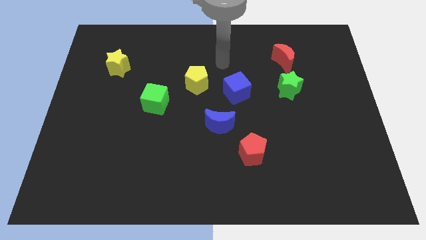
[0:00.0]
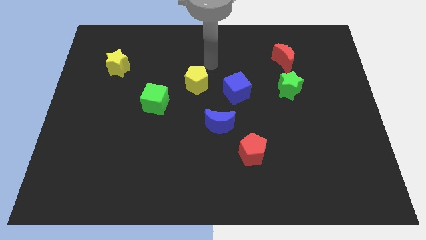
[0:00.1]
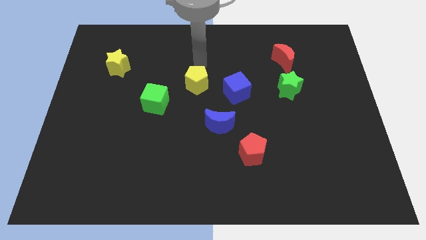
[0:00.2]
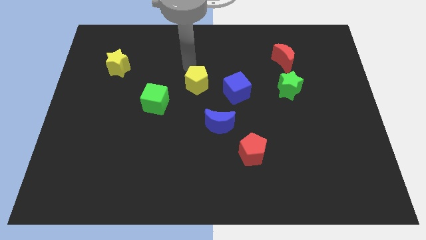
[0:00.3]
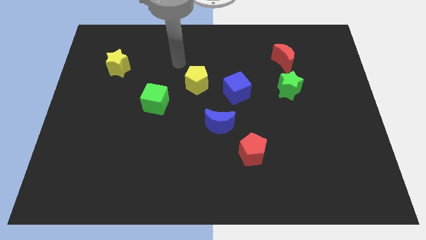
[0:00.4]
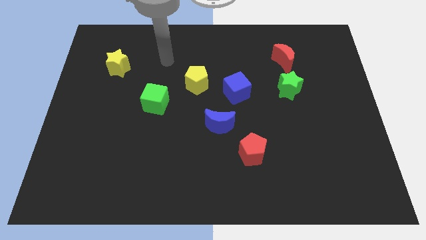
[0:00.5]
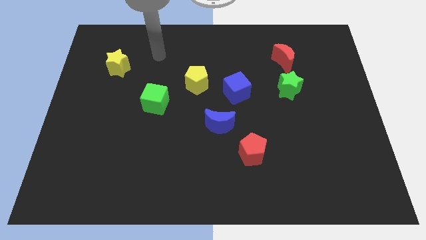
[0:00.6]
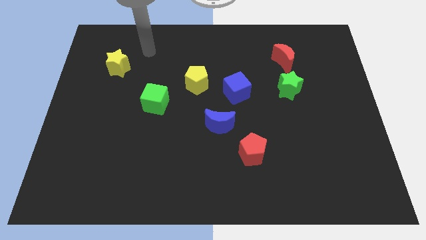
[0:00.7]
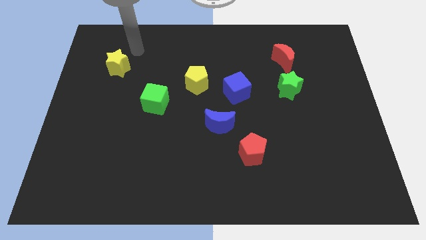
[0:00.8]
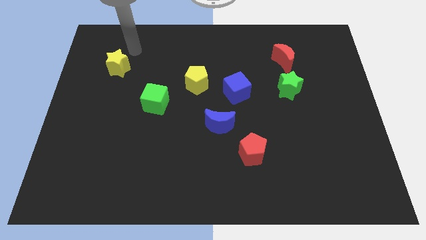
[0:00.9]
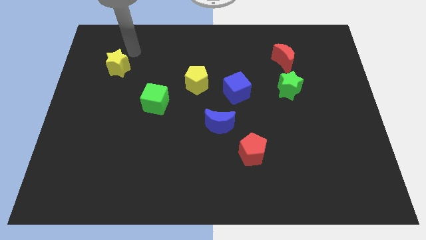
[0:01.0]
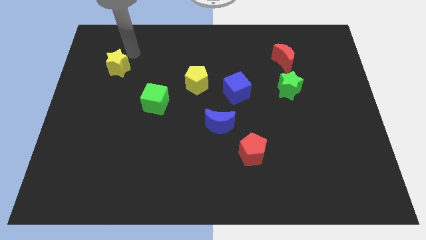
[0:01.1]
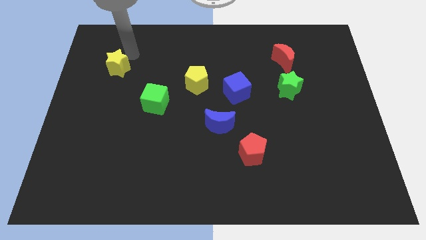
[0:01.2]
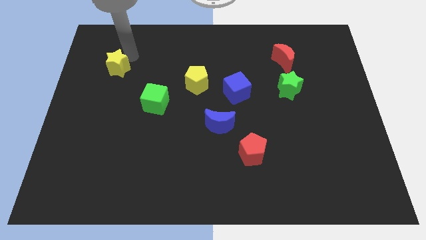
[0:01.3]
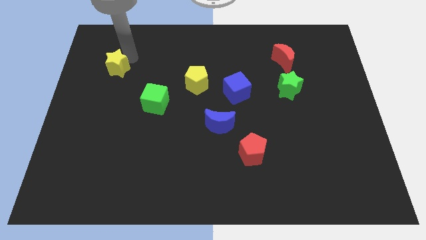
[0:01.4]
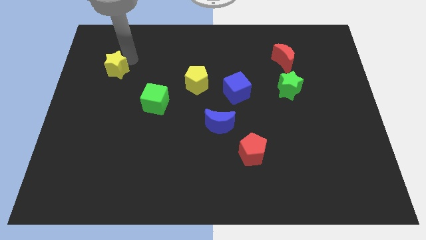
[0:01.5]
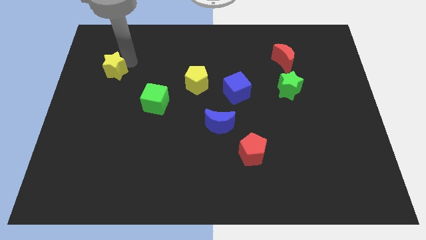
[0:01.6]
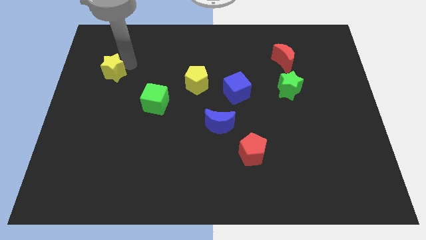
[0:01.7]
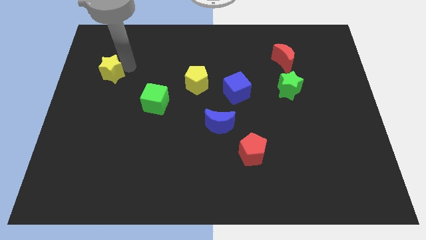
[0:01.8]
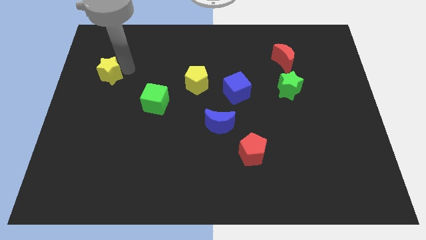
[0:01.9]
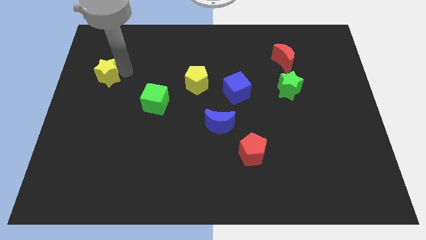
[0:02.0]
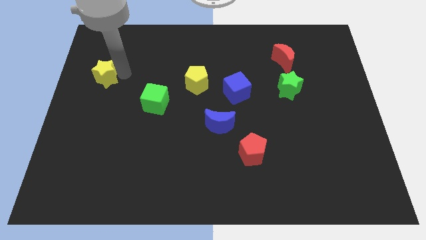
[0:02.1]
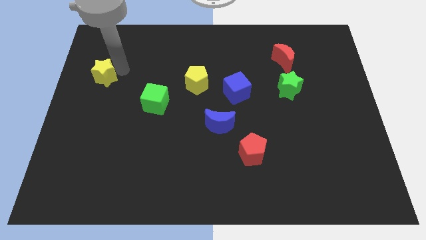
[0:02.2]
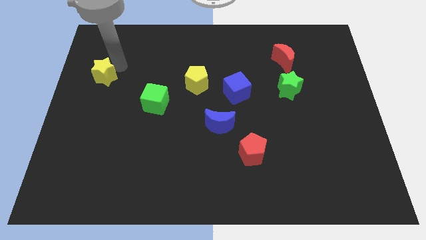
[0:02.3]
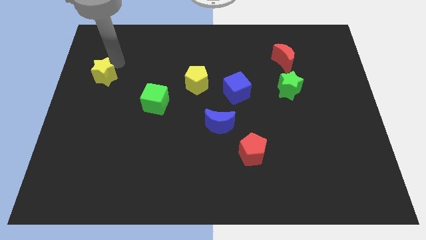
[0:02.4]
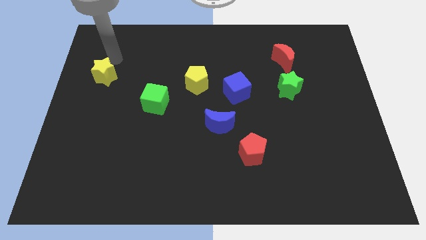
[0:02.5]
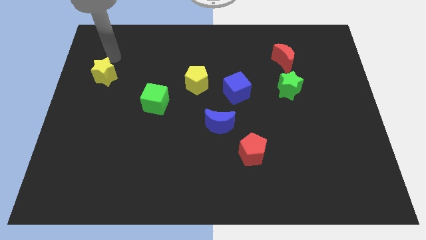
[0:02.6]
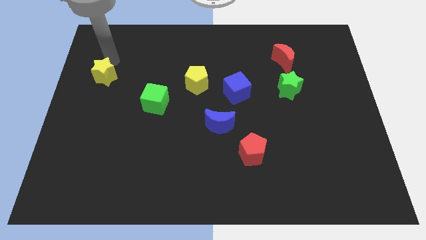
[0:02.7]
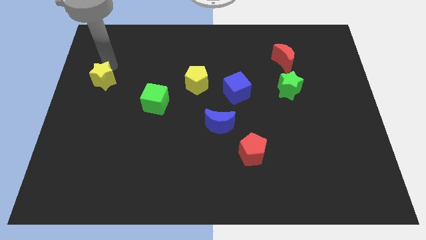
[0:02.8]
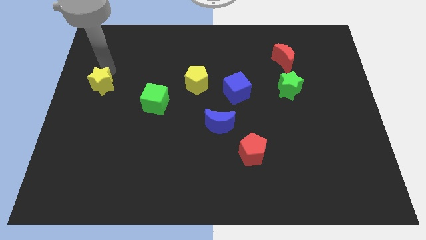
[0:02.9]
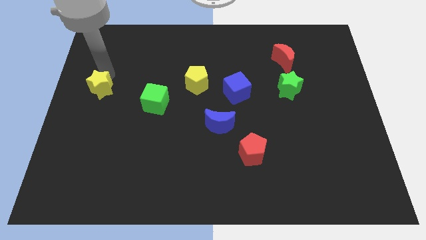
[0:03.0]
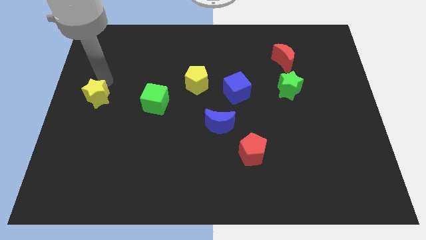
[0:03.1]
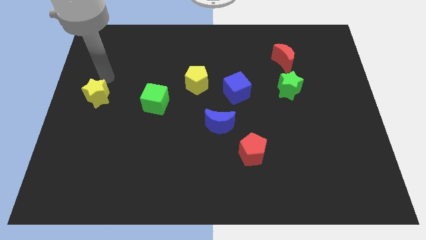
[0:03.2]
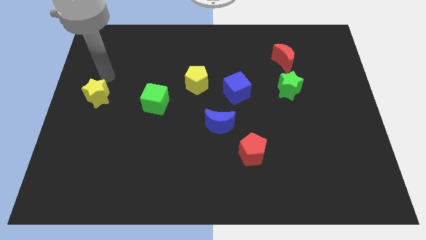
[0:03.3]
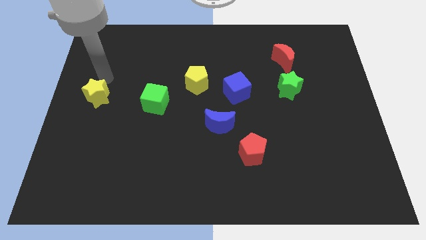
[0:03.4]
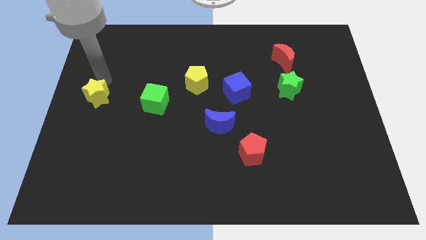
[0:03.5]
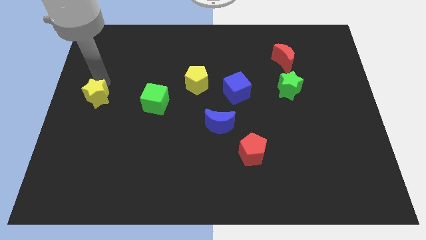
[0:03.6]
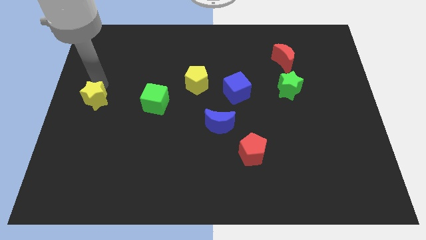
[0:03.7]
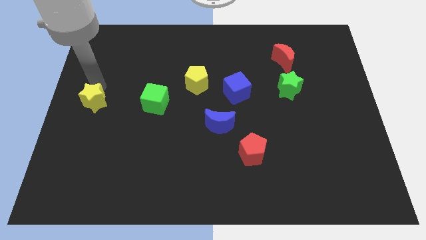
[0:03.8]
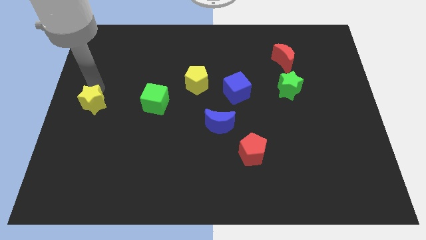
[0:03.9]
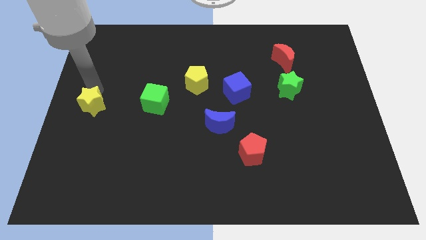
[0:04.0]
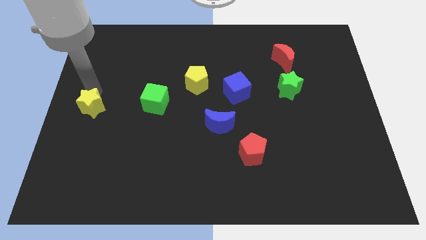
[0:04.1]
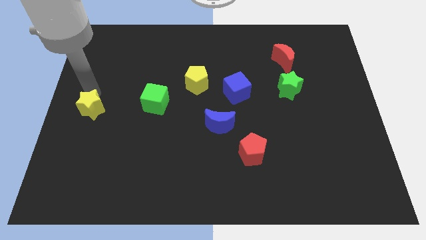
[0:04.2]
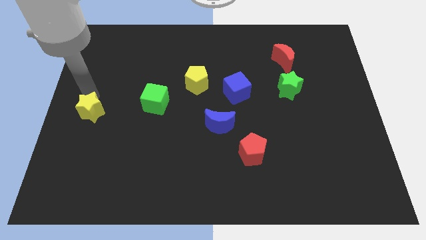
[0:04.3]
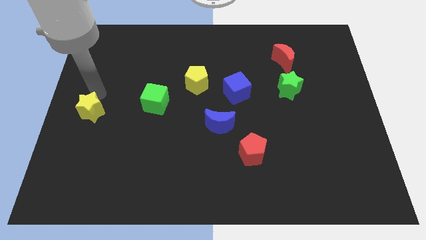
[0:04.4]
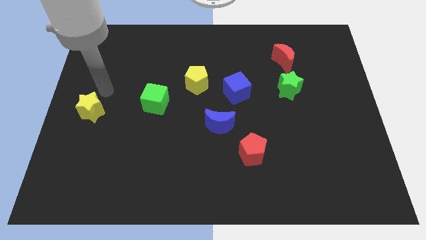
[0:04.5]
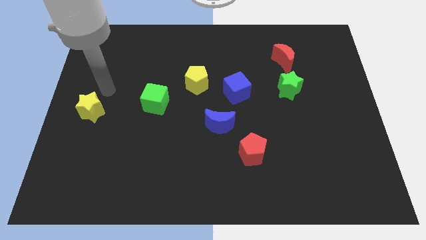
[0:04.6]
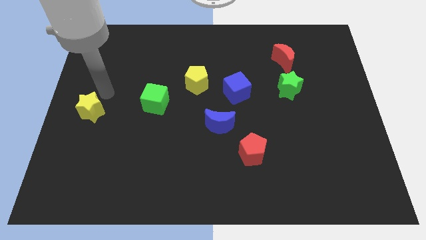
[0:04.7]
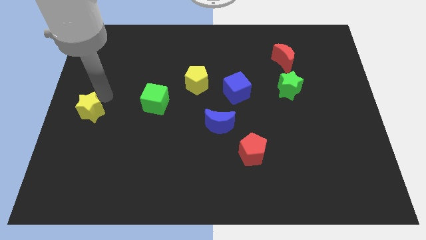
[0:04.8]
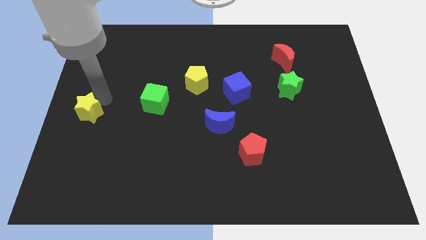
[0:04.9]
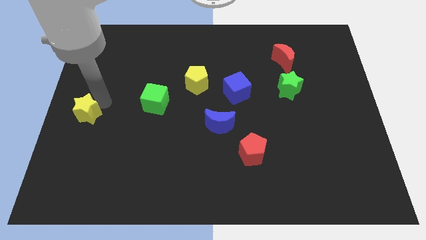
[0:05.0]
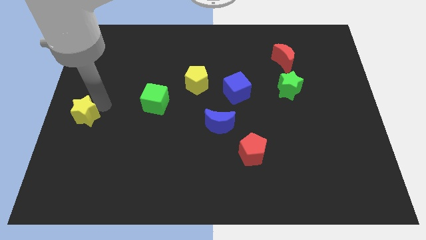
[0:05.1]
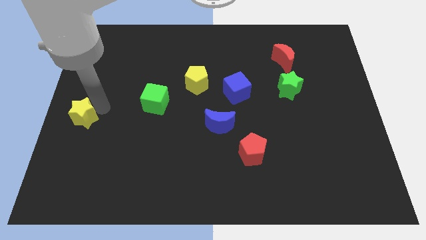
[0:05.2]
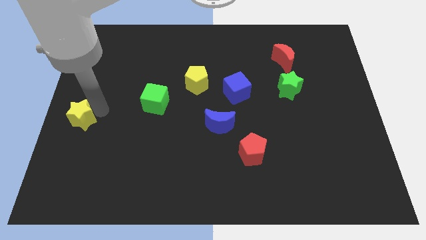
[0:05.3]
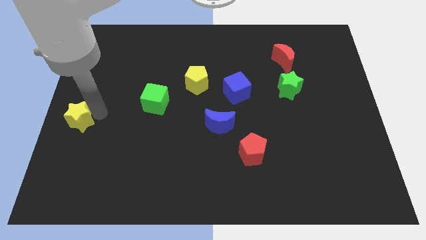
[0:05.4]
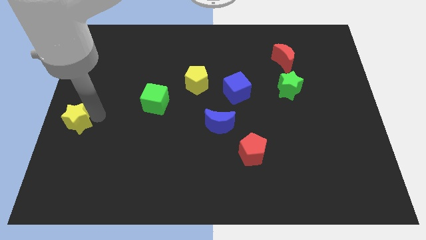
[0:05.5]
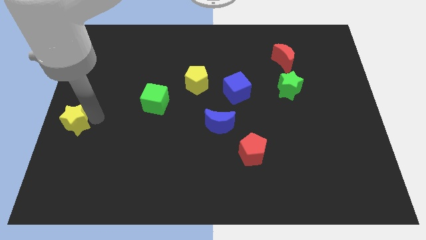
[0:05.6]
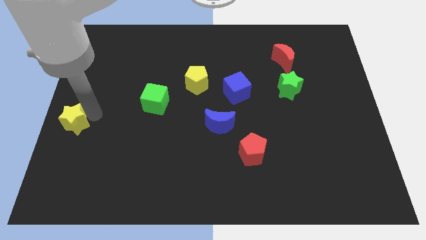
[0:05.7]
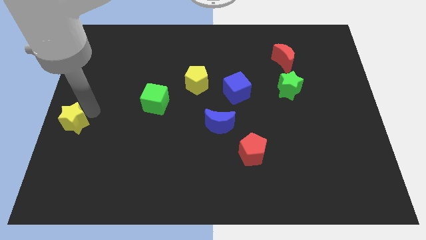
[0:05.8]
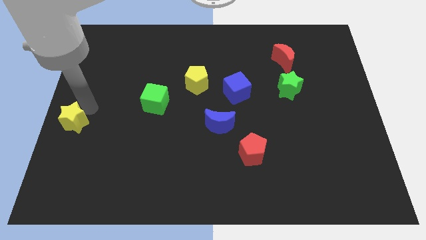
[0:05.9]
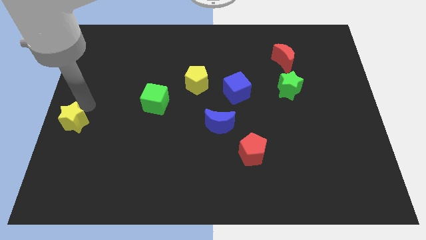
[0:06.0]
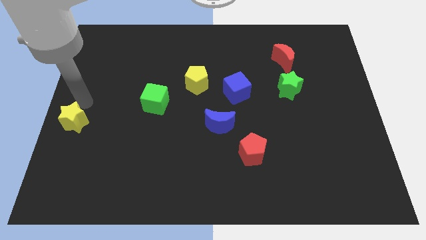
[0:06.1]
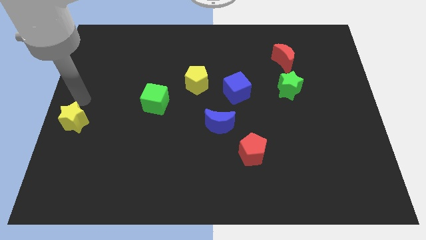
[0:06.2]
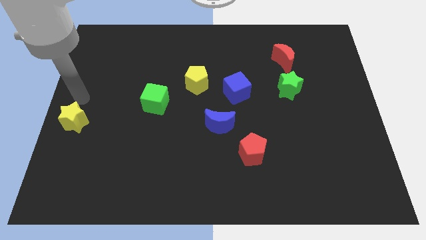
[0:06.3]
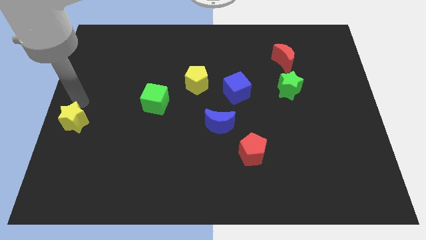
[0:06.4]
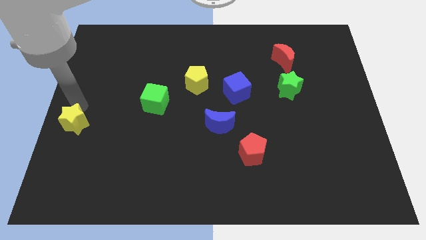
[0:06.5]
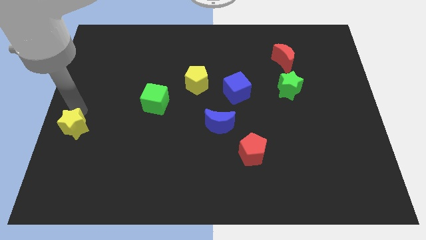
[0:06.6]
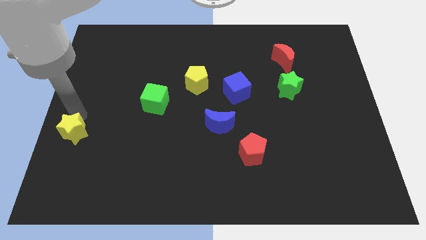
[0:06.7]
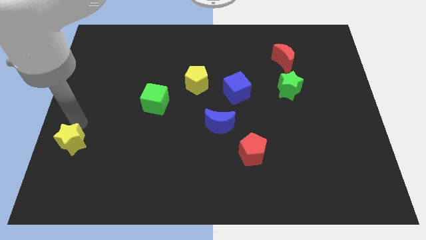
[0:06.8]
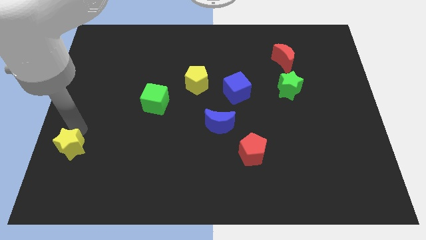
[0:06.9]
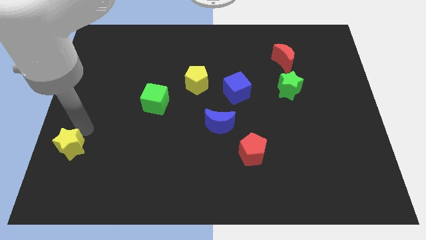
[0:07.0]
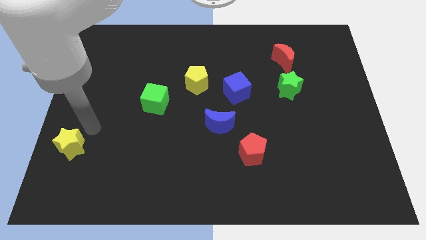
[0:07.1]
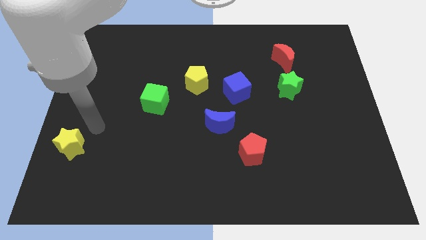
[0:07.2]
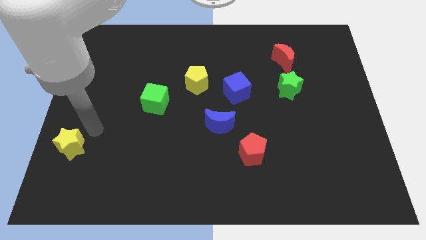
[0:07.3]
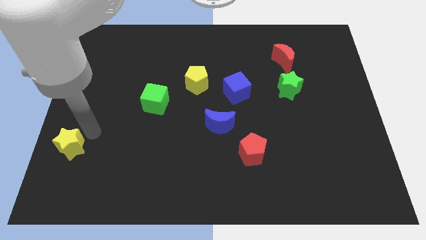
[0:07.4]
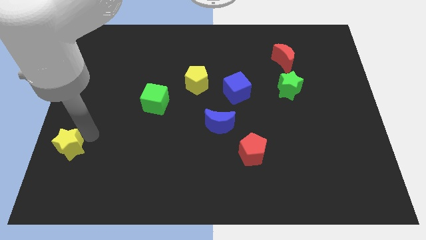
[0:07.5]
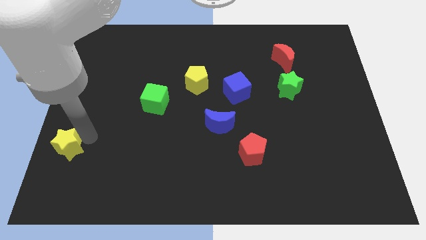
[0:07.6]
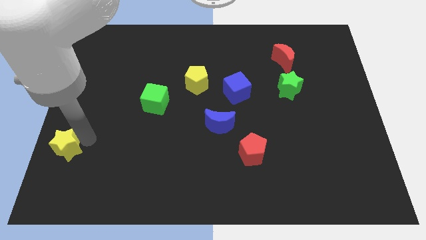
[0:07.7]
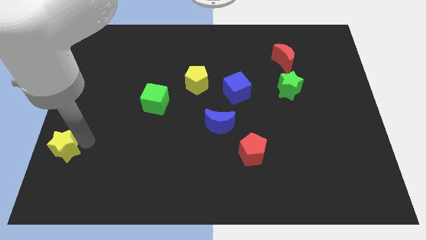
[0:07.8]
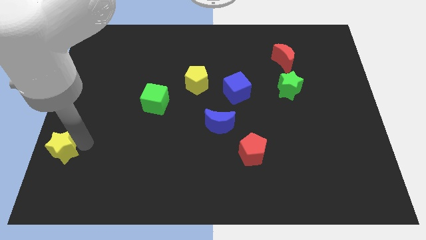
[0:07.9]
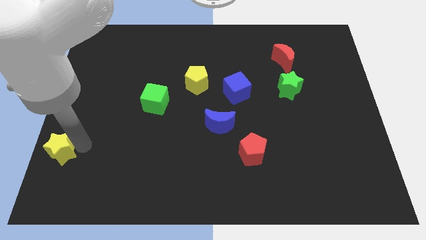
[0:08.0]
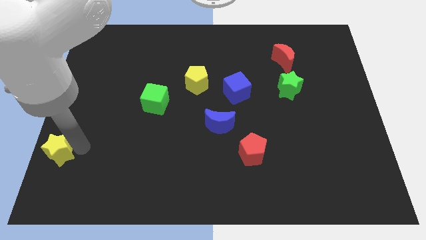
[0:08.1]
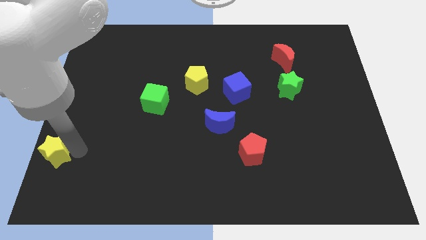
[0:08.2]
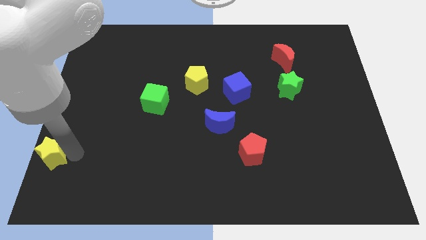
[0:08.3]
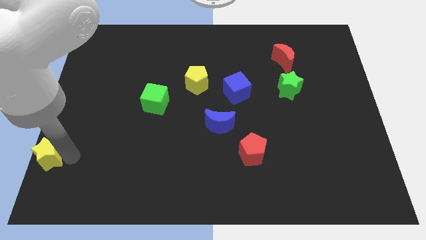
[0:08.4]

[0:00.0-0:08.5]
slide the yellow star to the bottom left corner
